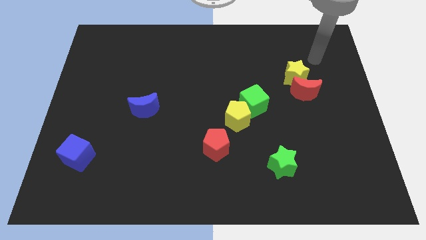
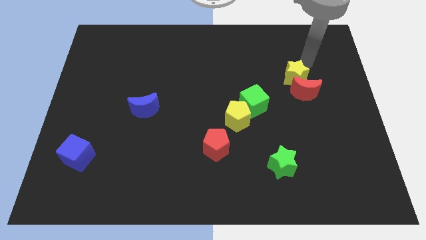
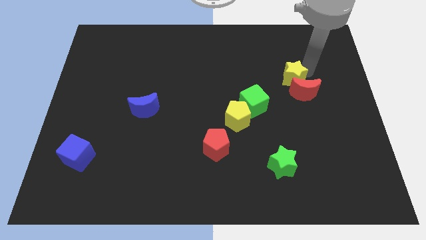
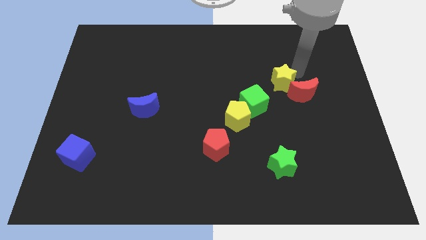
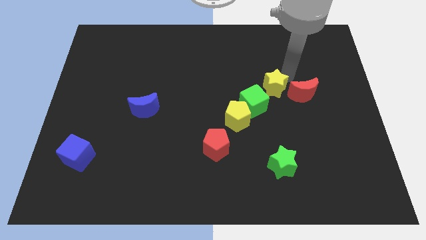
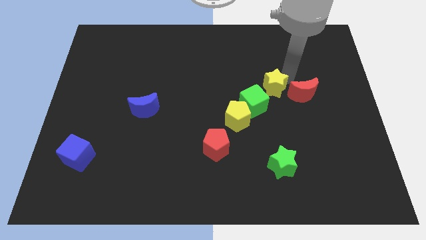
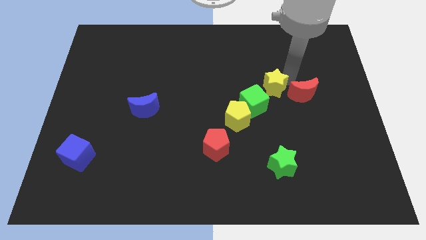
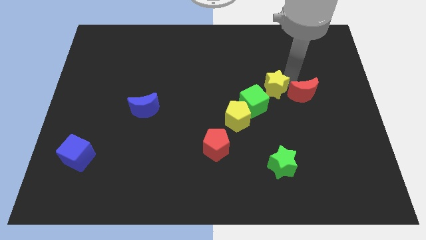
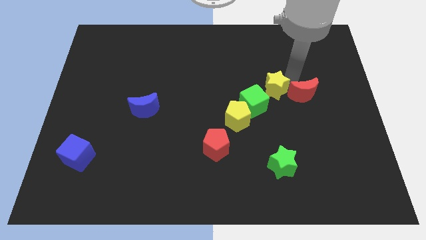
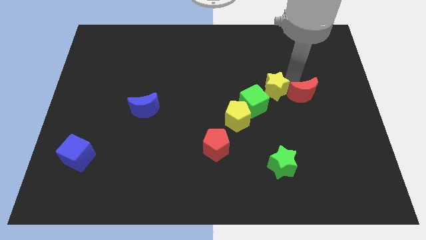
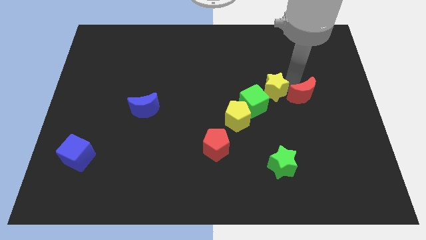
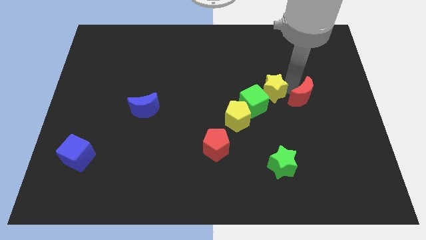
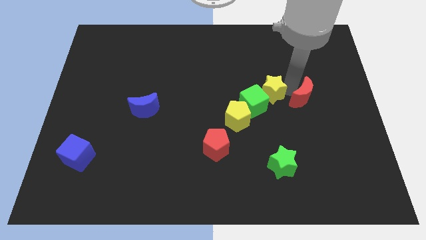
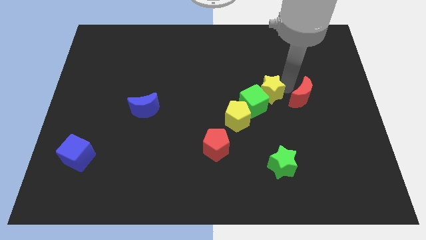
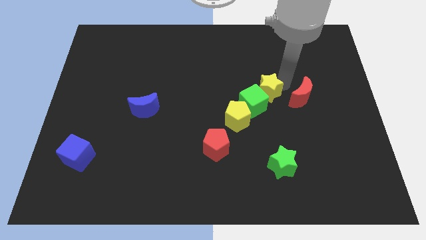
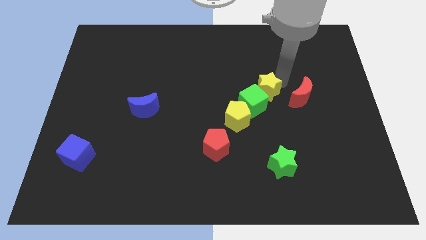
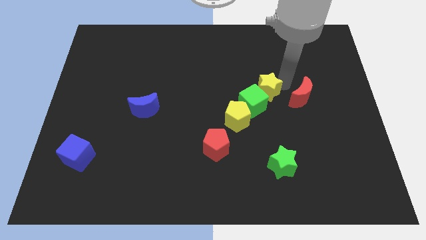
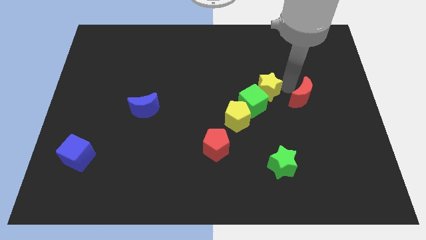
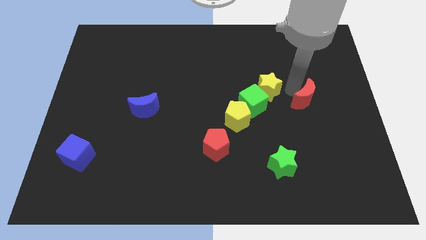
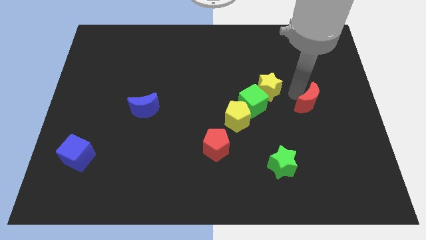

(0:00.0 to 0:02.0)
move the red moon away from the yellow star

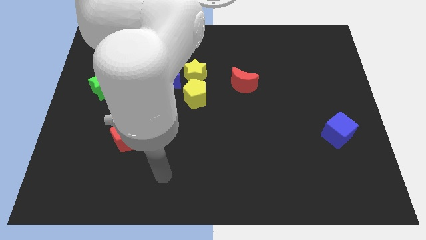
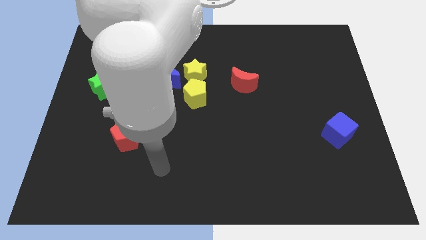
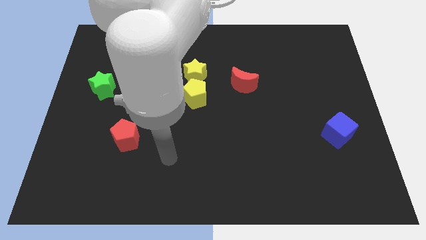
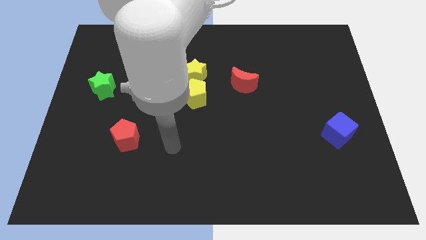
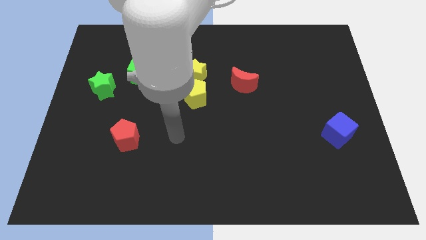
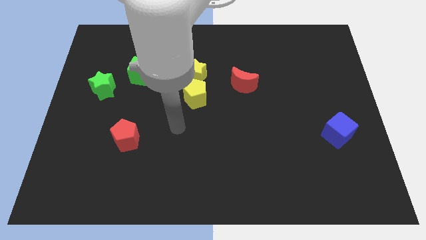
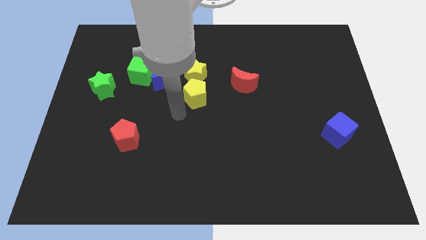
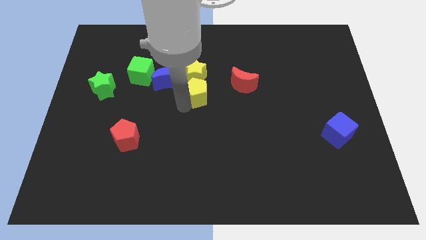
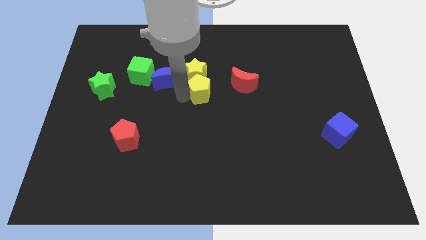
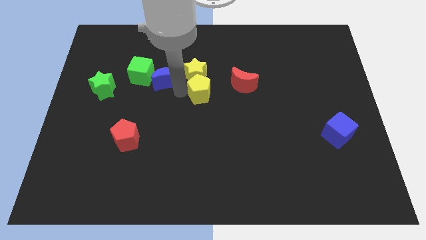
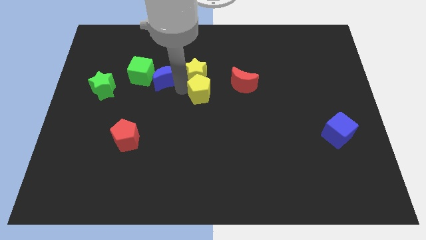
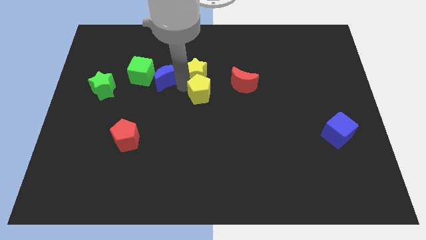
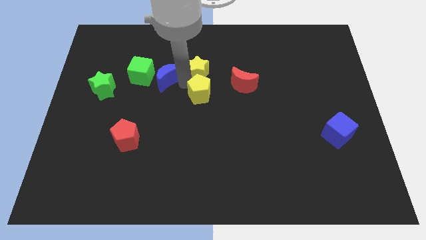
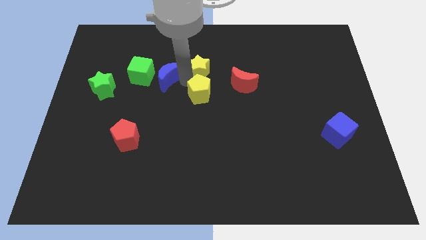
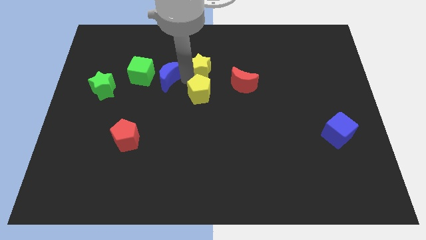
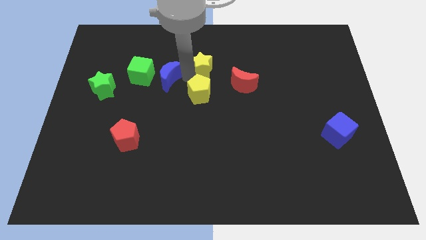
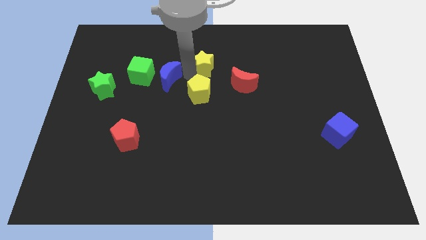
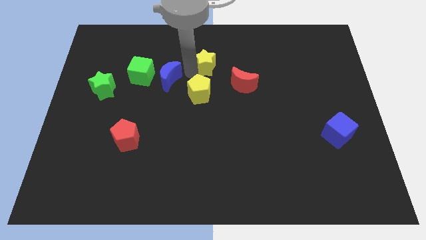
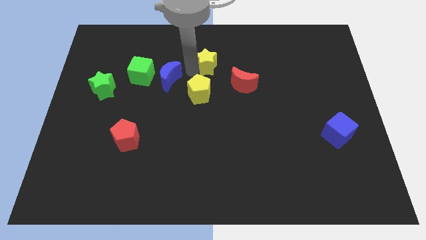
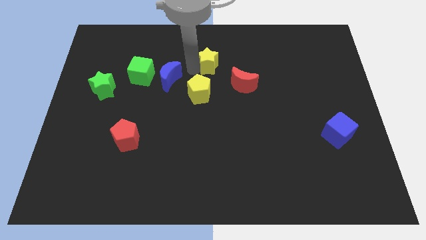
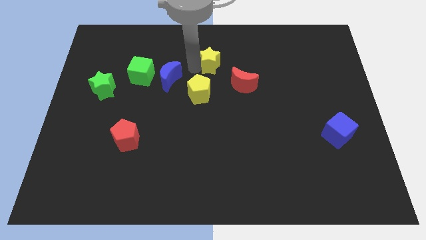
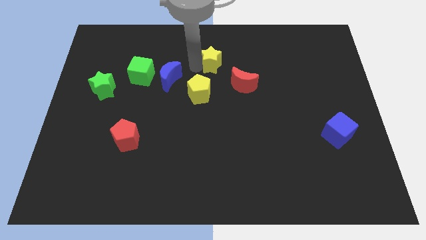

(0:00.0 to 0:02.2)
pull the yellow star apart from the yellow pentagon and blue moon

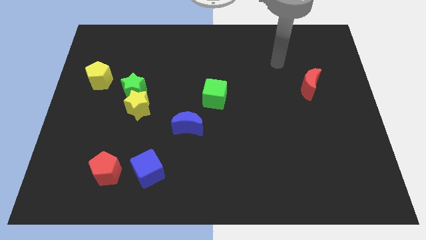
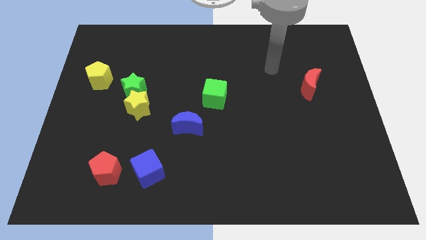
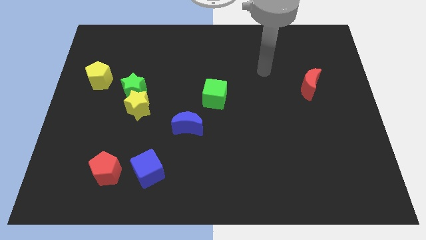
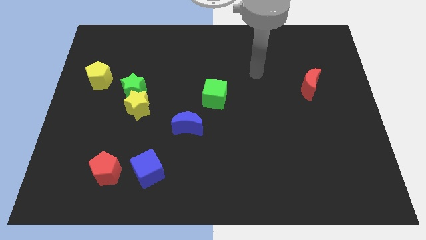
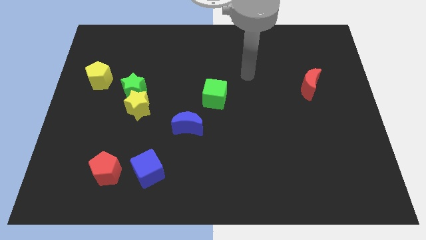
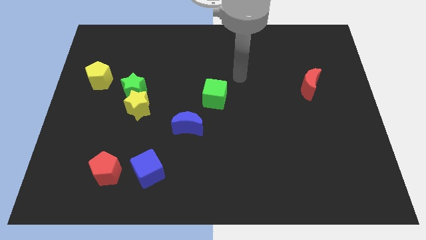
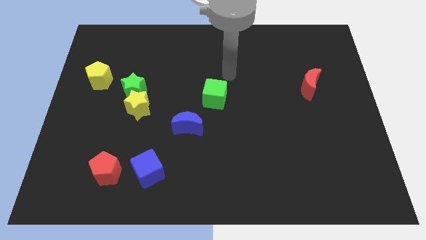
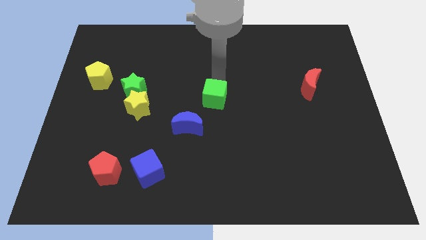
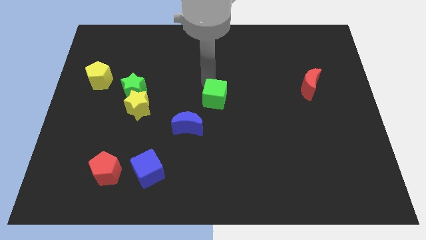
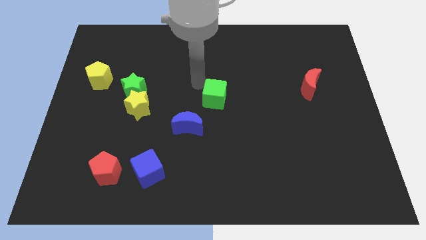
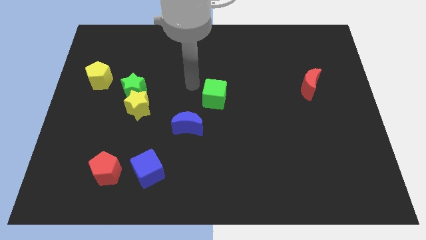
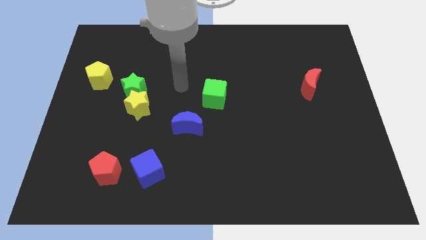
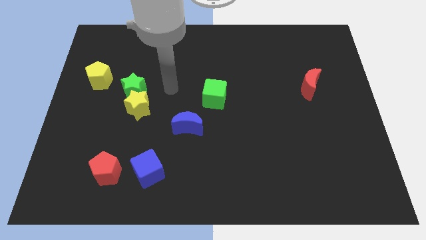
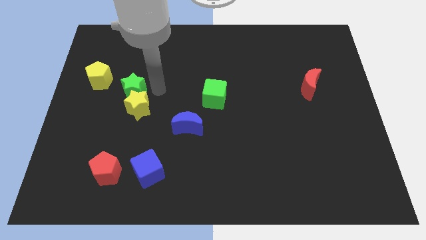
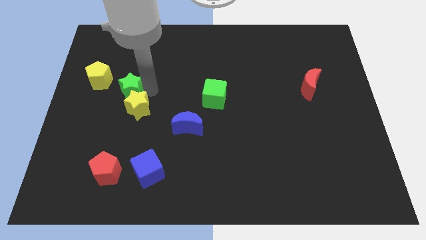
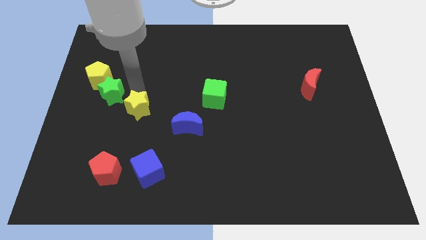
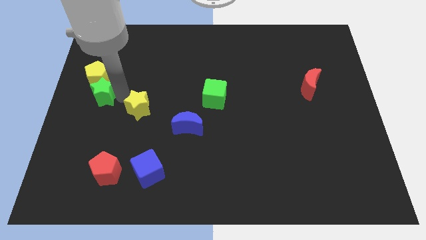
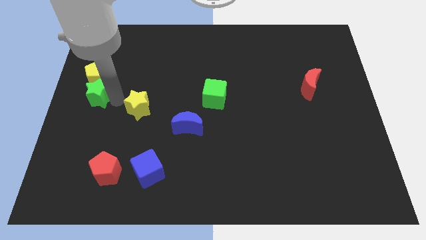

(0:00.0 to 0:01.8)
move the yellow star away from the green star

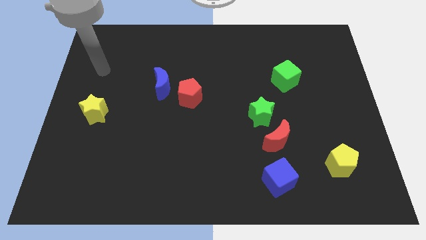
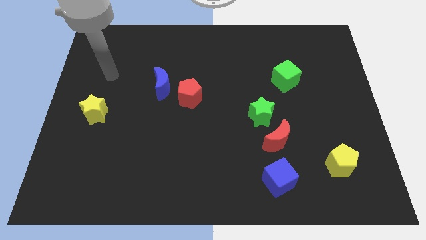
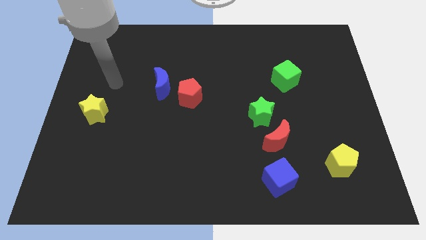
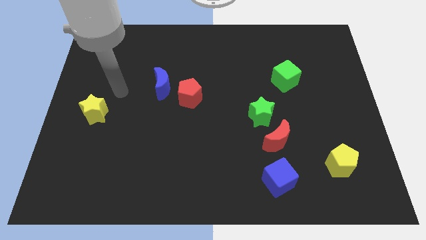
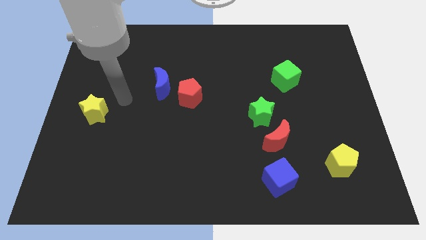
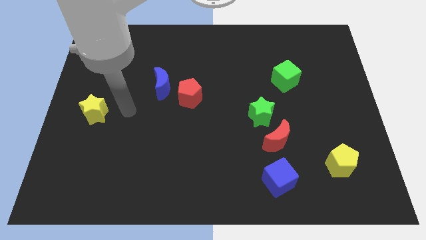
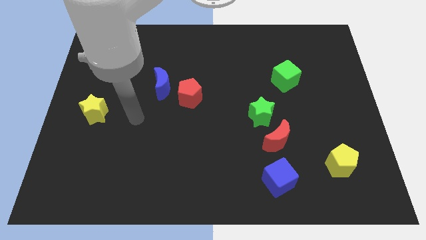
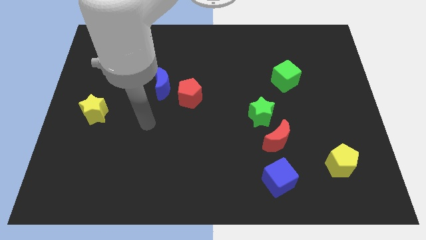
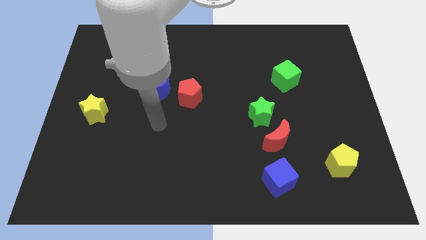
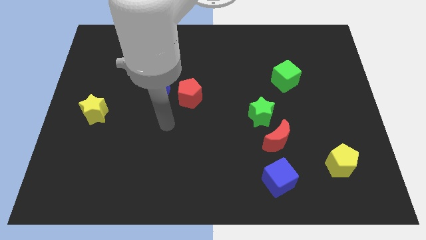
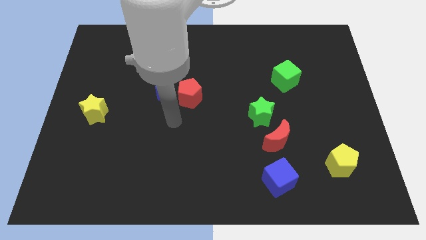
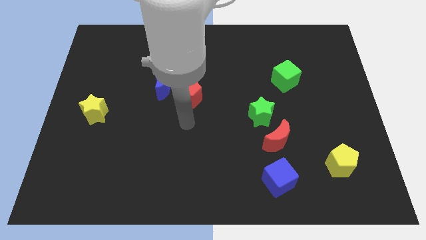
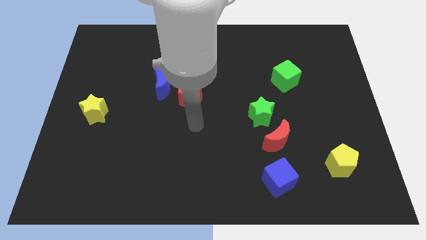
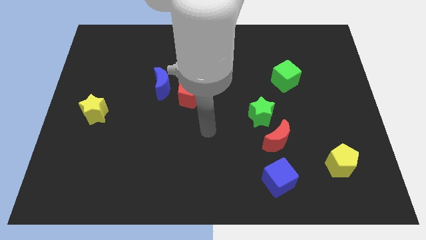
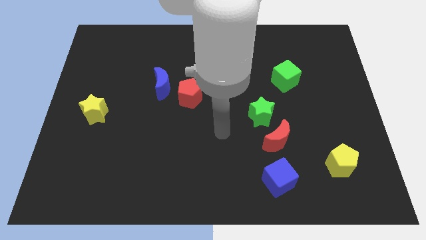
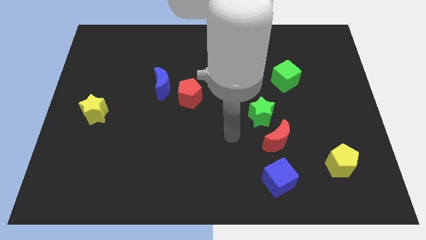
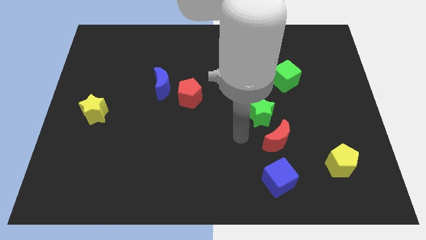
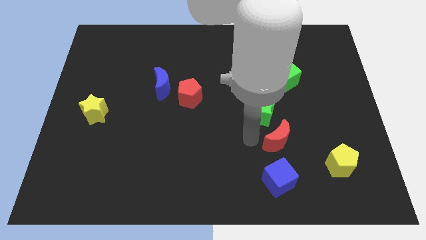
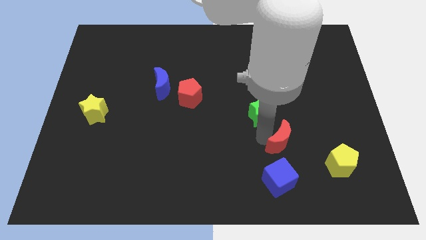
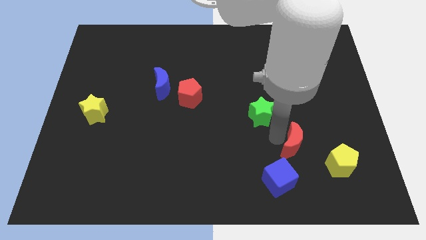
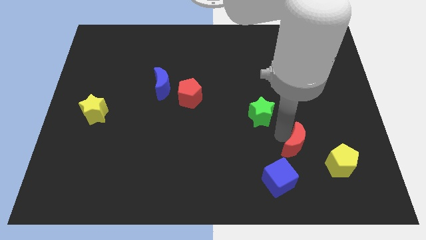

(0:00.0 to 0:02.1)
move the green star away from the red moon

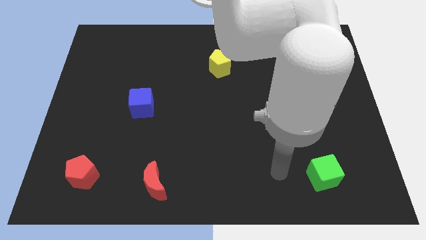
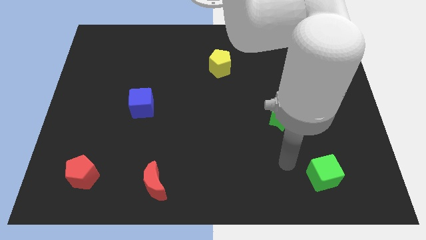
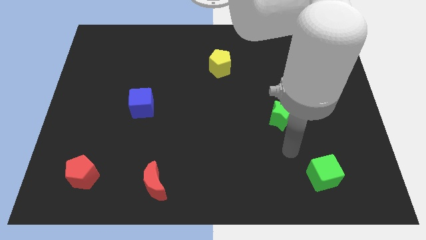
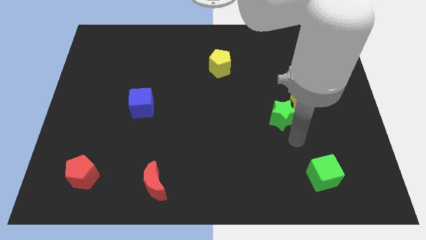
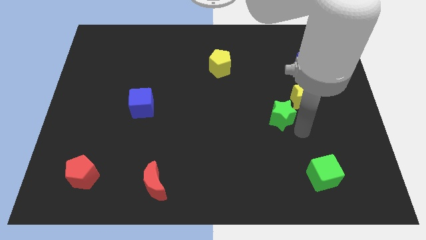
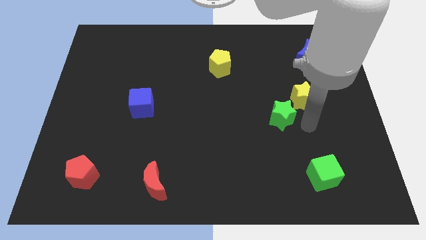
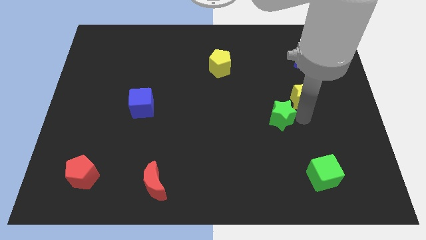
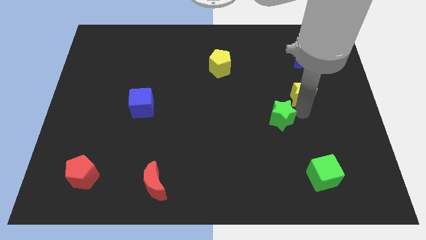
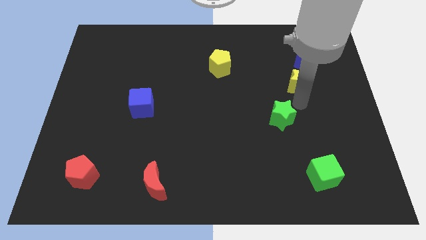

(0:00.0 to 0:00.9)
separate the green star from the yellow star

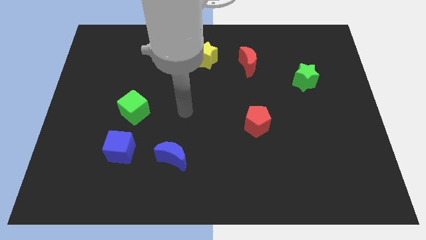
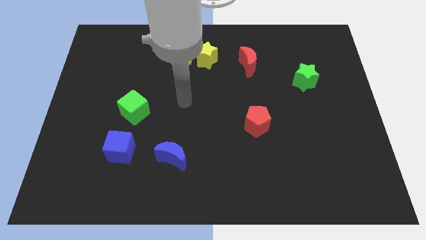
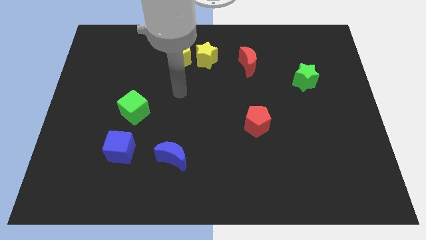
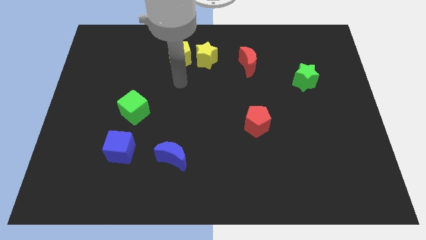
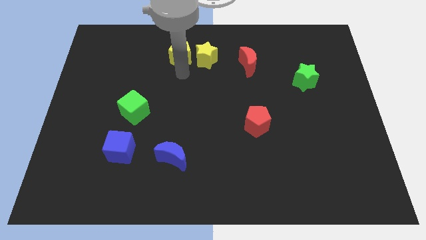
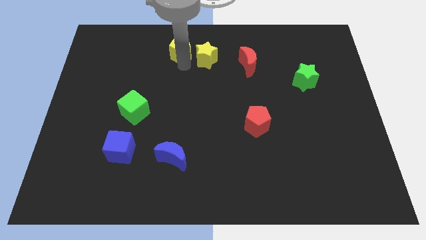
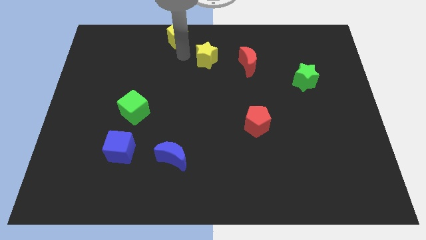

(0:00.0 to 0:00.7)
move the yellow star away from the yellow pentagon
